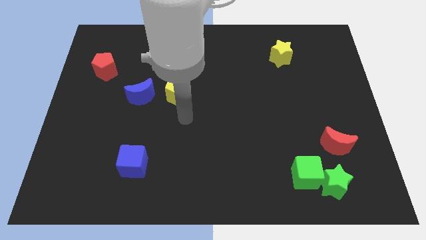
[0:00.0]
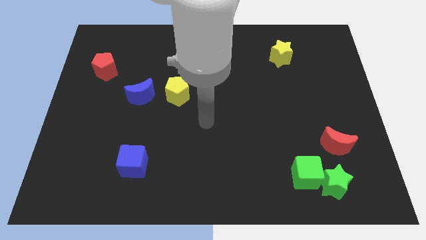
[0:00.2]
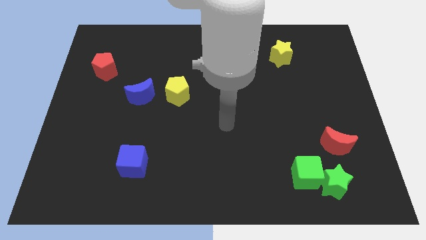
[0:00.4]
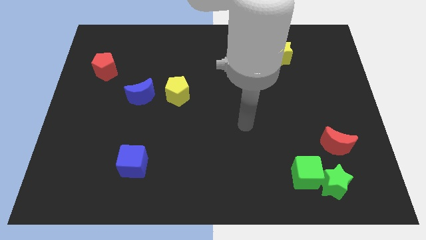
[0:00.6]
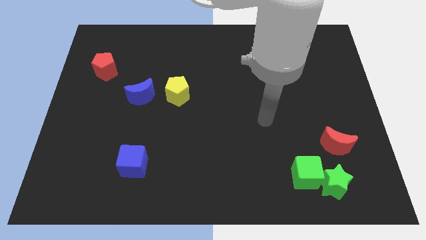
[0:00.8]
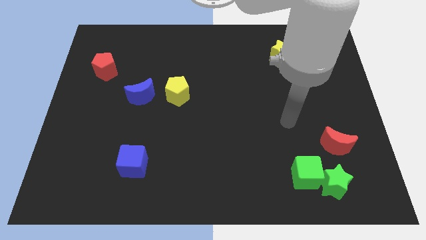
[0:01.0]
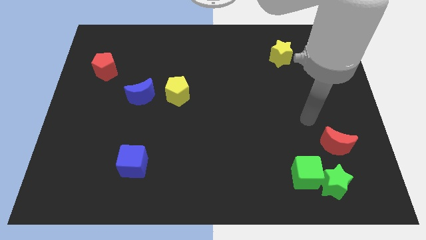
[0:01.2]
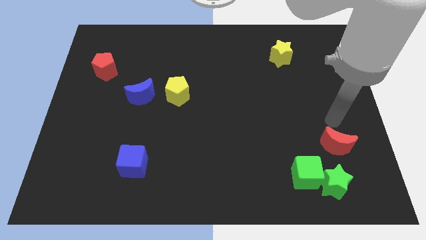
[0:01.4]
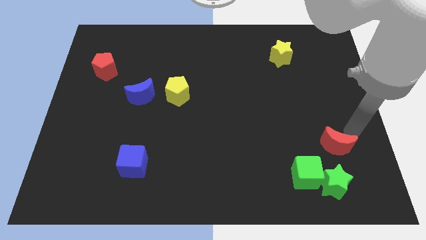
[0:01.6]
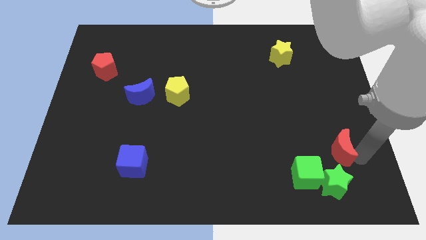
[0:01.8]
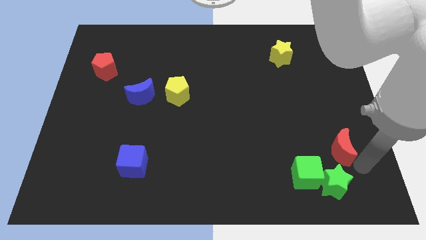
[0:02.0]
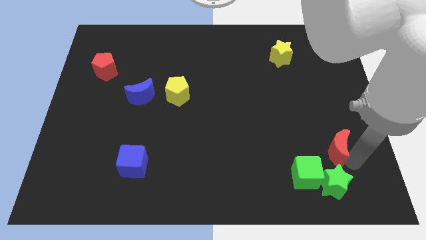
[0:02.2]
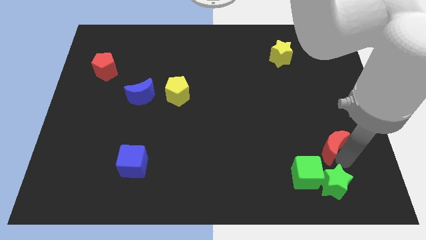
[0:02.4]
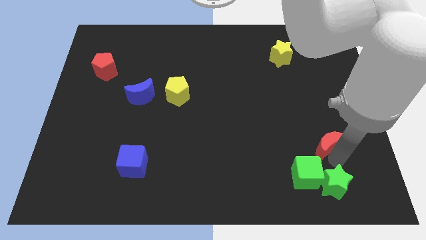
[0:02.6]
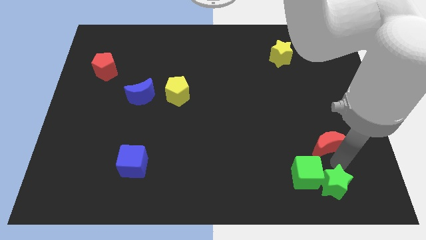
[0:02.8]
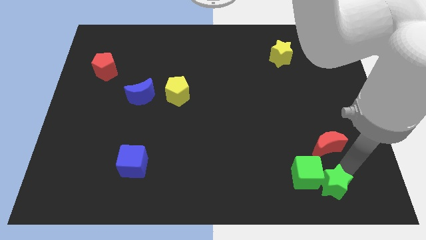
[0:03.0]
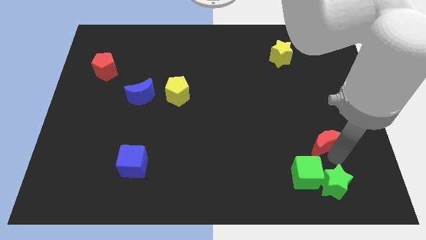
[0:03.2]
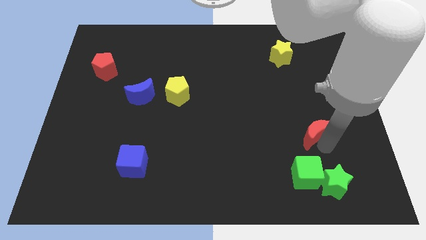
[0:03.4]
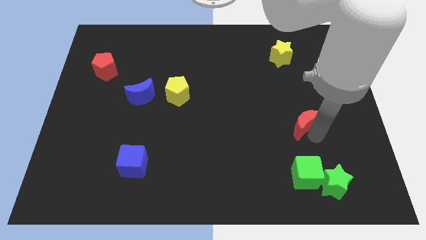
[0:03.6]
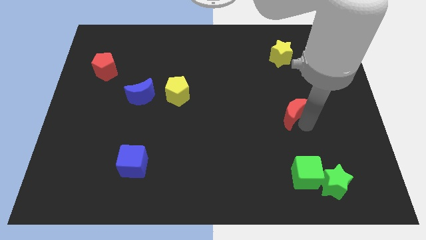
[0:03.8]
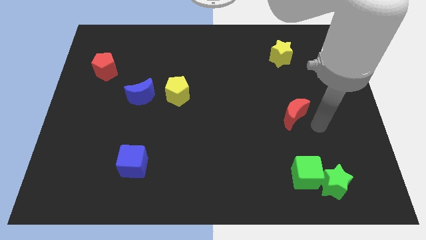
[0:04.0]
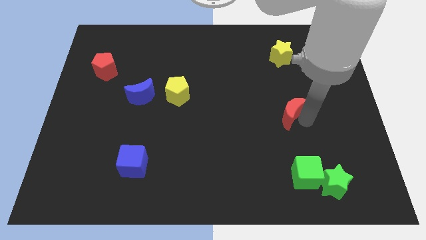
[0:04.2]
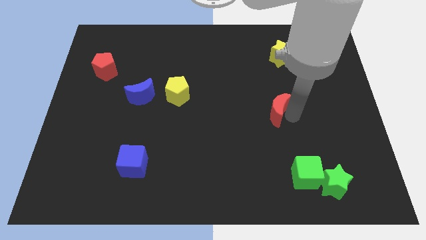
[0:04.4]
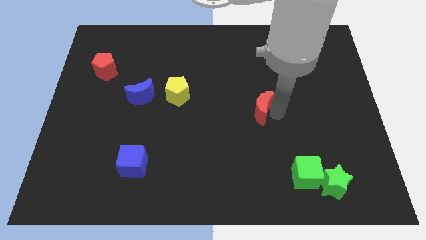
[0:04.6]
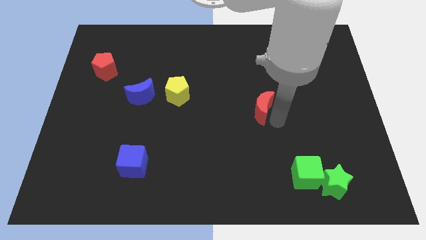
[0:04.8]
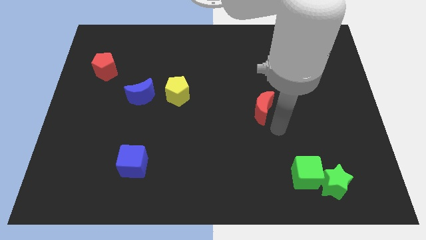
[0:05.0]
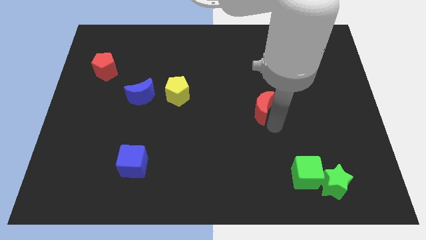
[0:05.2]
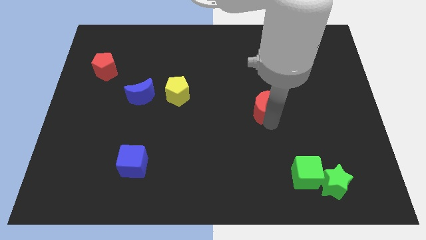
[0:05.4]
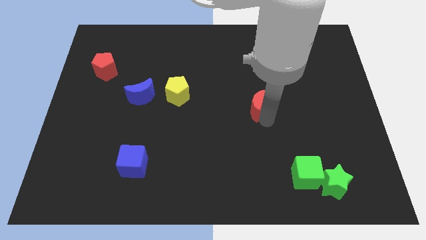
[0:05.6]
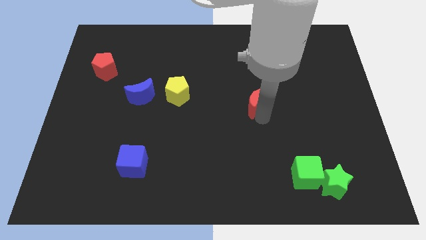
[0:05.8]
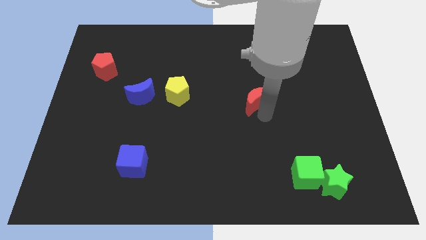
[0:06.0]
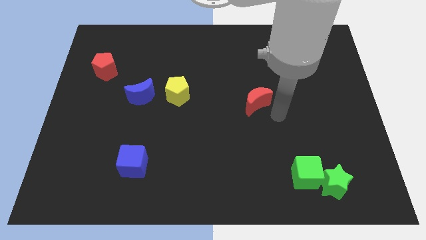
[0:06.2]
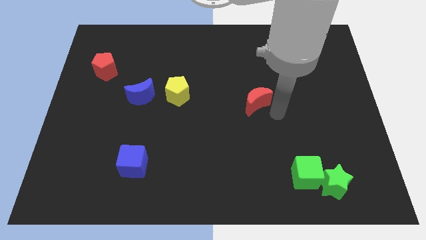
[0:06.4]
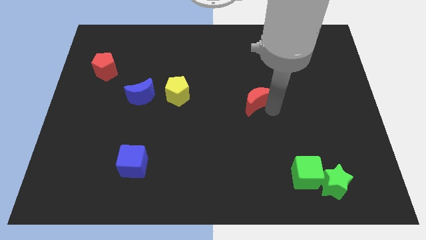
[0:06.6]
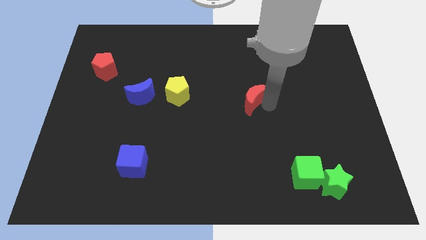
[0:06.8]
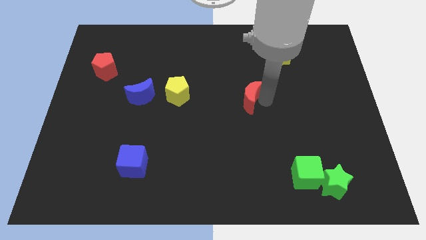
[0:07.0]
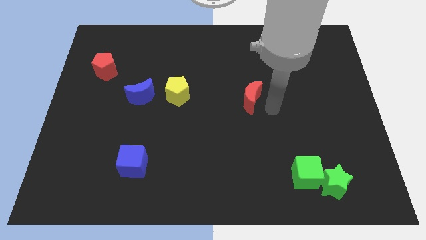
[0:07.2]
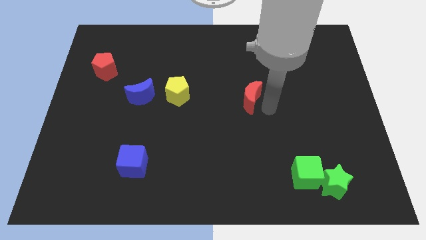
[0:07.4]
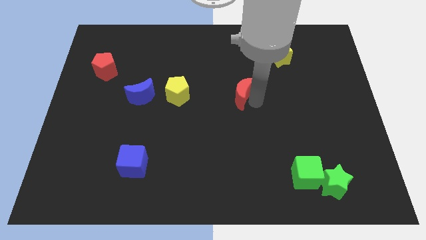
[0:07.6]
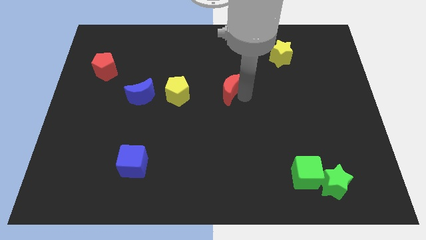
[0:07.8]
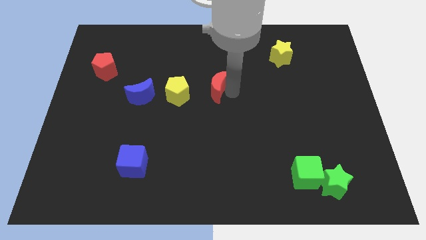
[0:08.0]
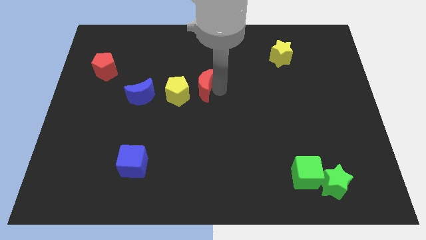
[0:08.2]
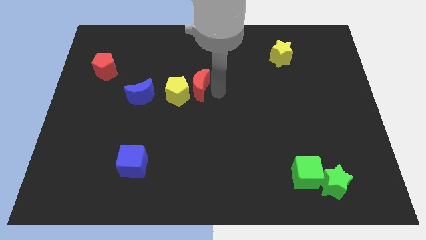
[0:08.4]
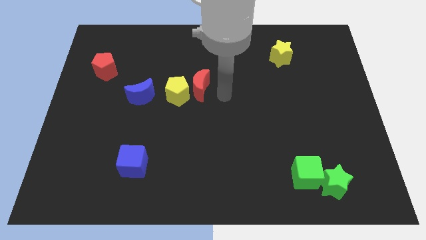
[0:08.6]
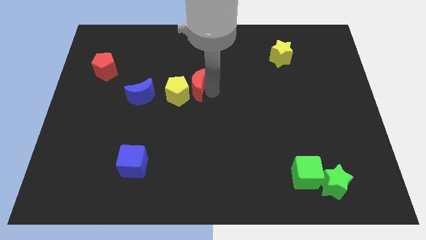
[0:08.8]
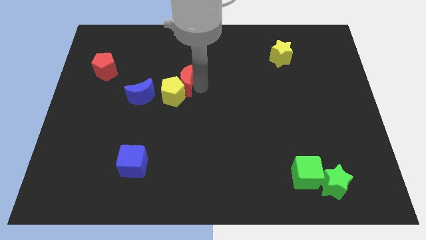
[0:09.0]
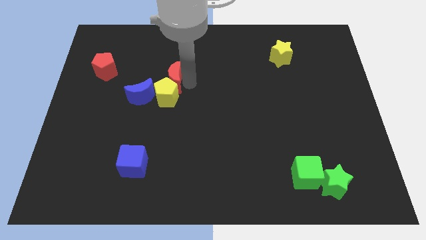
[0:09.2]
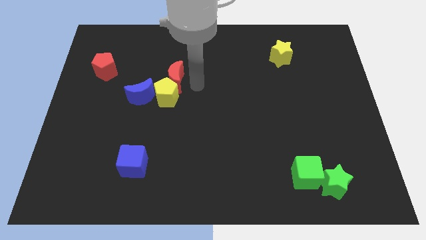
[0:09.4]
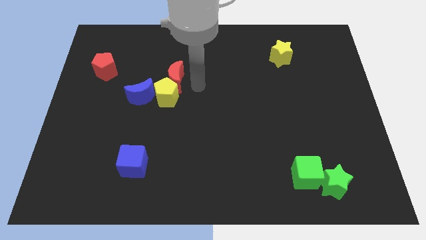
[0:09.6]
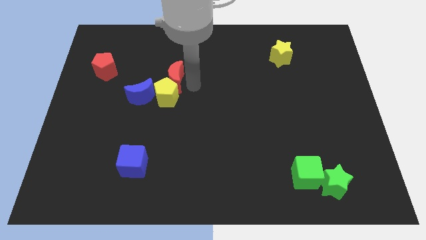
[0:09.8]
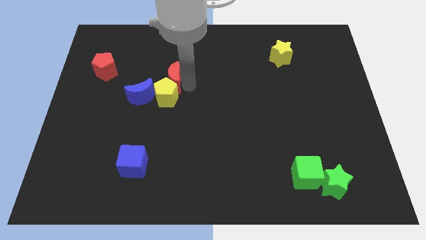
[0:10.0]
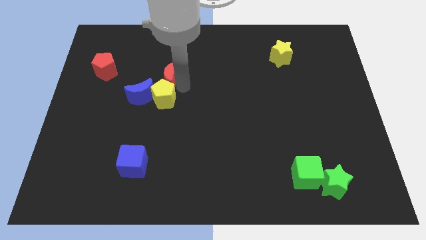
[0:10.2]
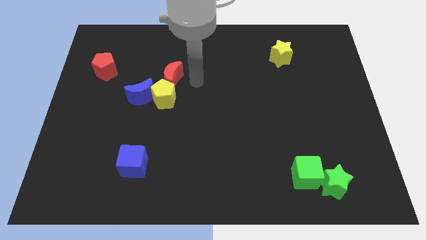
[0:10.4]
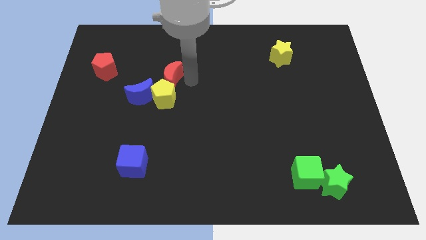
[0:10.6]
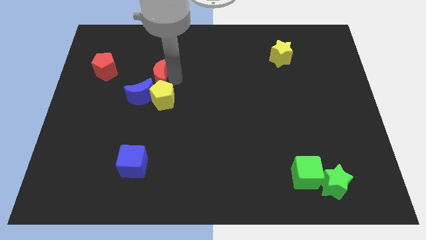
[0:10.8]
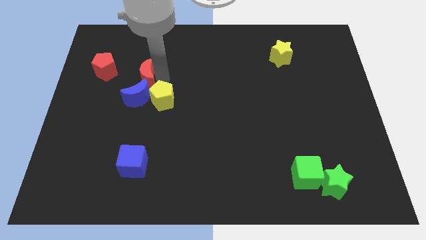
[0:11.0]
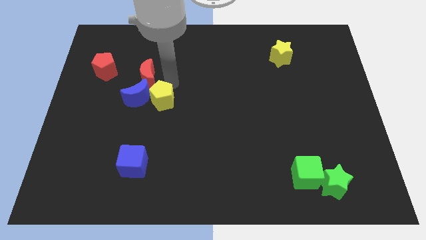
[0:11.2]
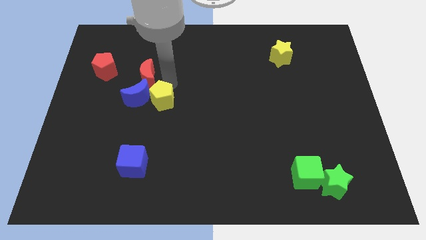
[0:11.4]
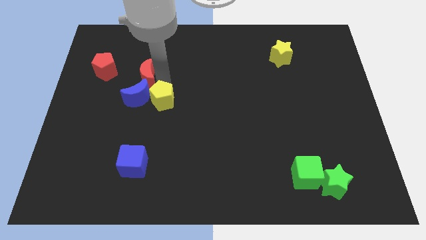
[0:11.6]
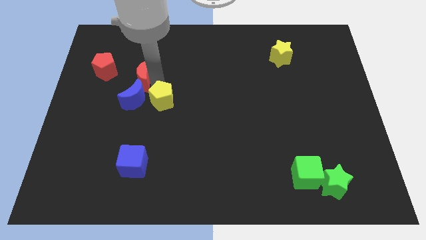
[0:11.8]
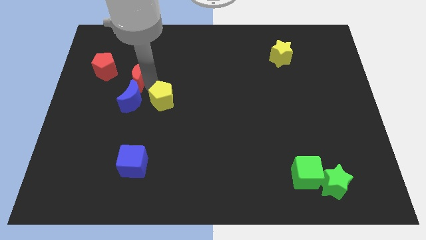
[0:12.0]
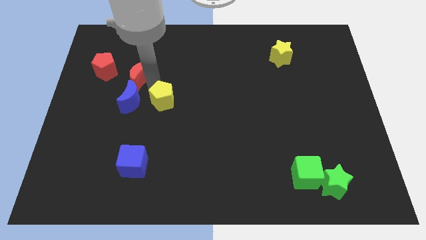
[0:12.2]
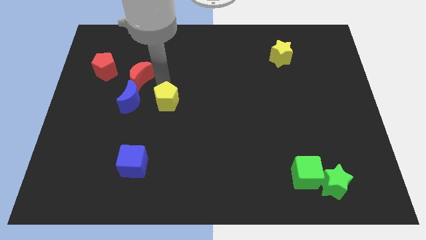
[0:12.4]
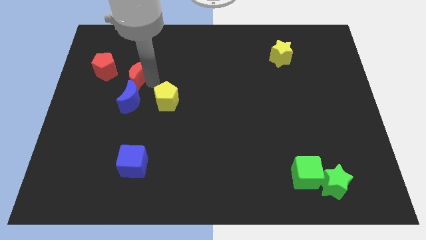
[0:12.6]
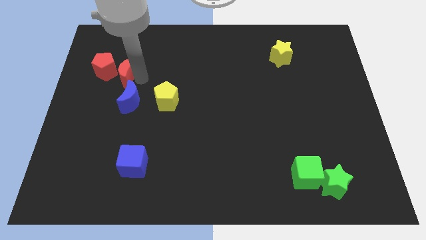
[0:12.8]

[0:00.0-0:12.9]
slide the red moon next to the red pentagon
